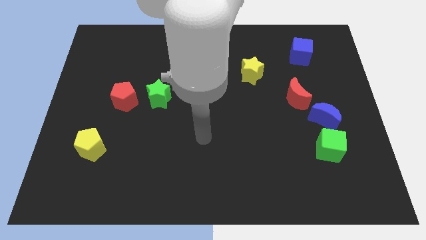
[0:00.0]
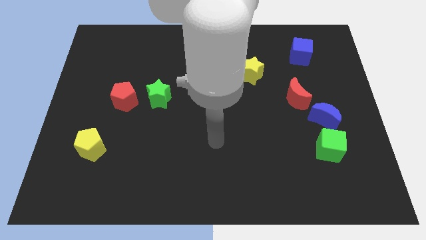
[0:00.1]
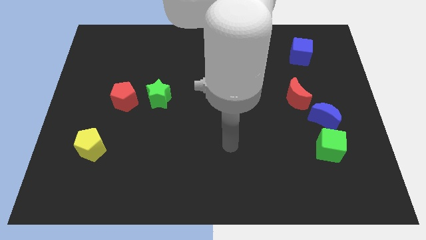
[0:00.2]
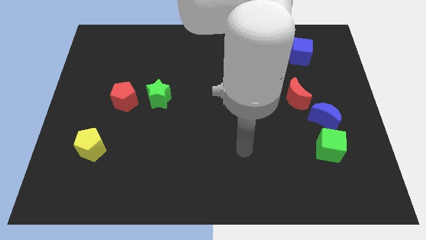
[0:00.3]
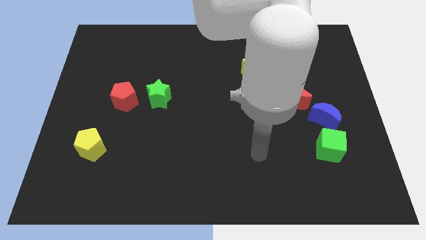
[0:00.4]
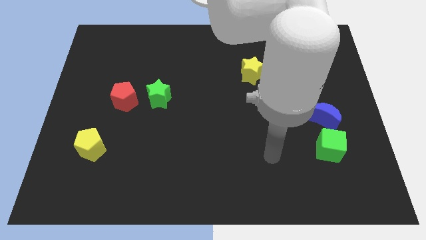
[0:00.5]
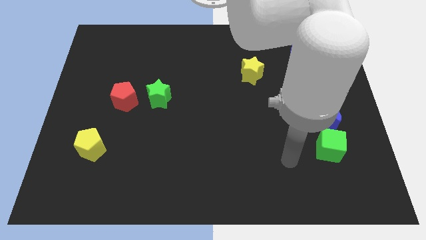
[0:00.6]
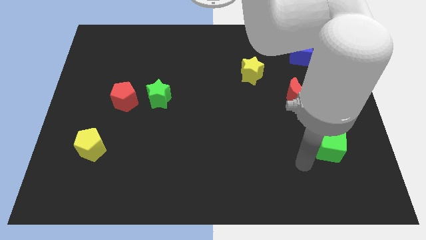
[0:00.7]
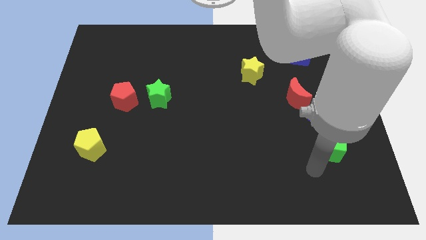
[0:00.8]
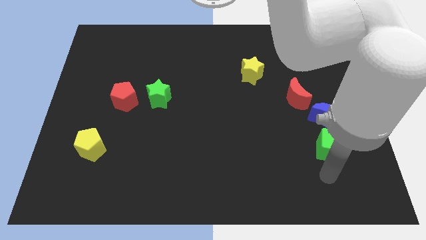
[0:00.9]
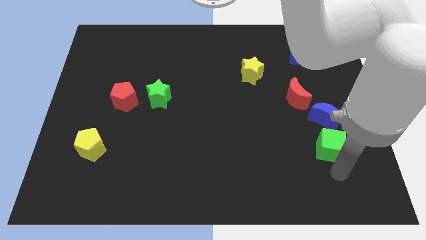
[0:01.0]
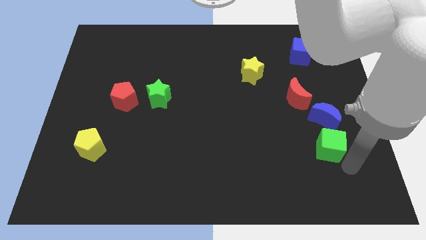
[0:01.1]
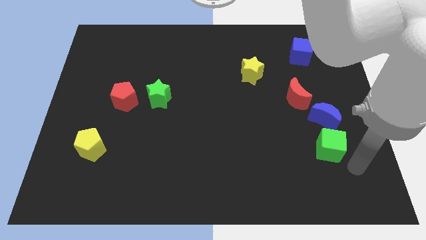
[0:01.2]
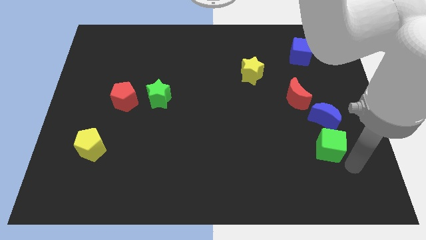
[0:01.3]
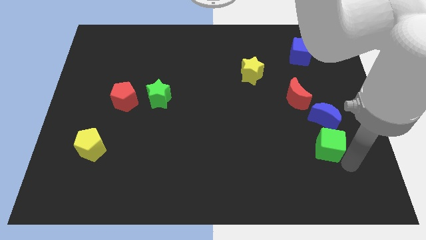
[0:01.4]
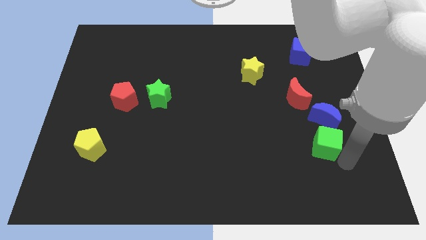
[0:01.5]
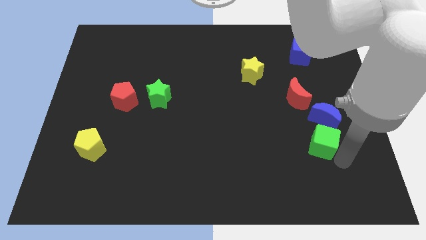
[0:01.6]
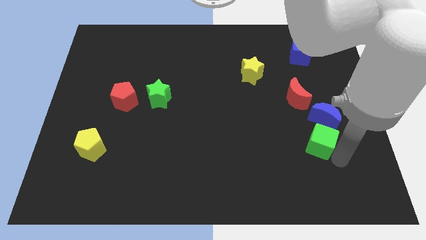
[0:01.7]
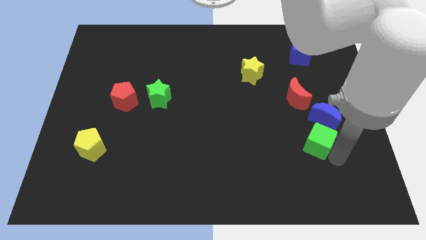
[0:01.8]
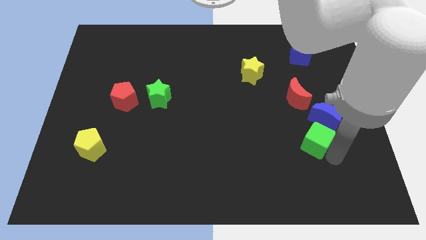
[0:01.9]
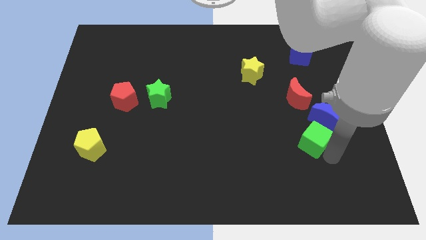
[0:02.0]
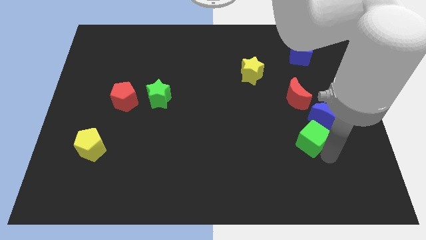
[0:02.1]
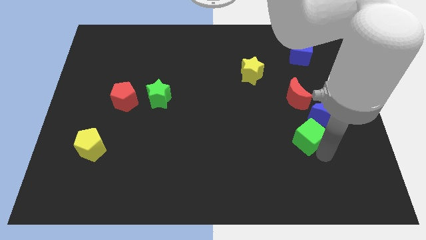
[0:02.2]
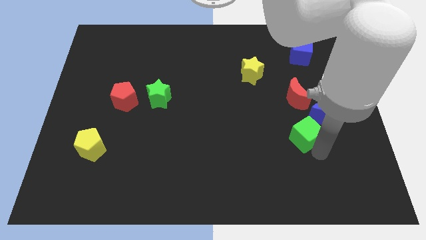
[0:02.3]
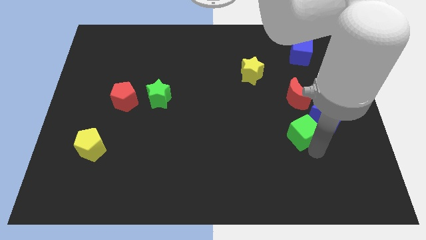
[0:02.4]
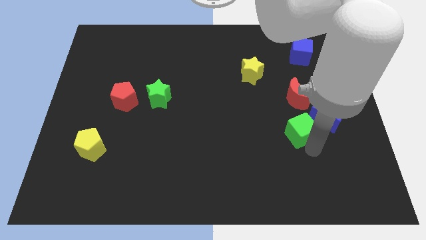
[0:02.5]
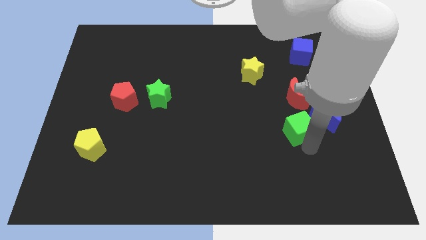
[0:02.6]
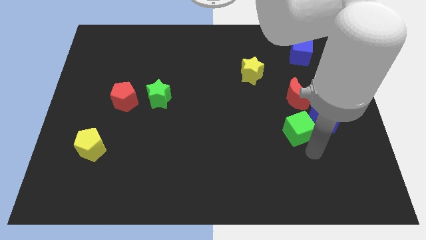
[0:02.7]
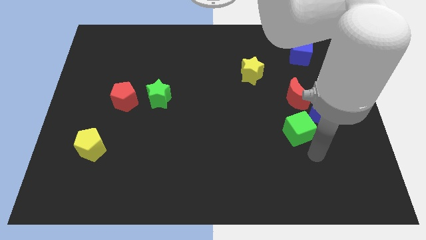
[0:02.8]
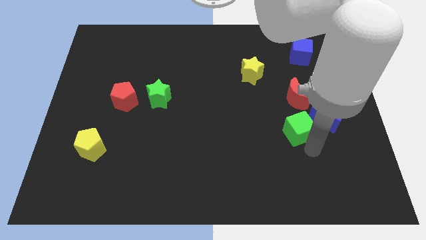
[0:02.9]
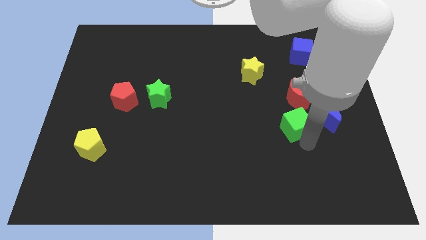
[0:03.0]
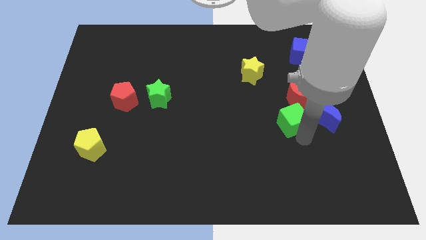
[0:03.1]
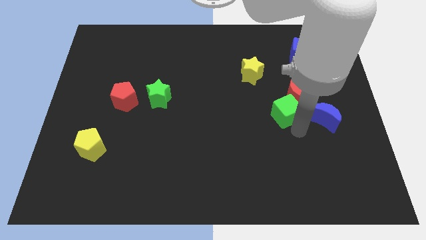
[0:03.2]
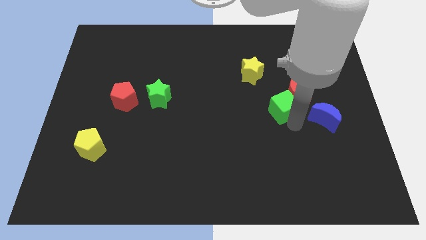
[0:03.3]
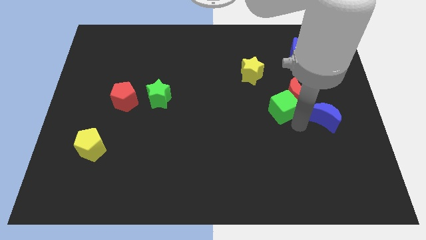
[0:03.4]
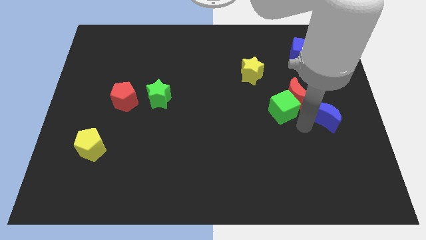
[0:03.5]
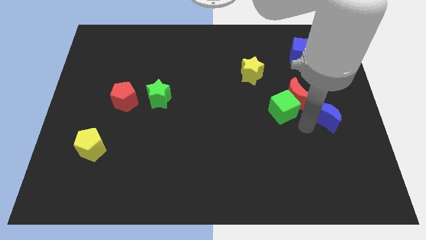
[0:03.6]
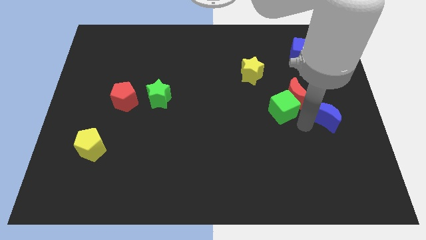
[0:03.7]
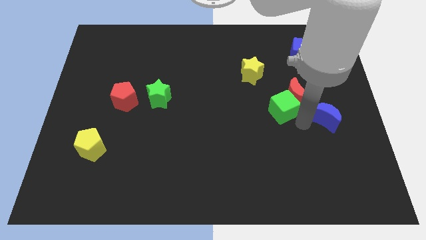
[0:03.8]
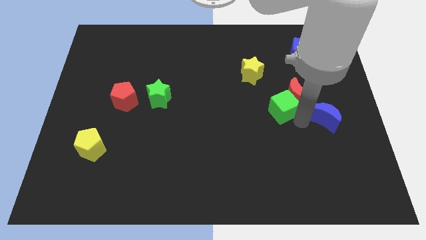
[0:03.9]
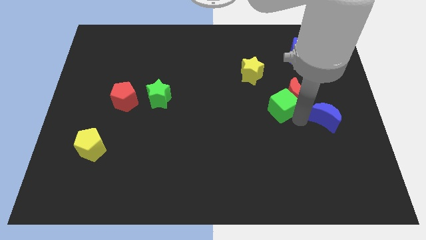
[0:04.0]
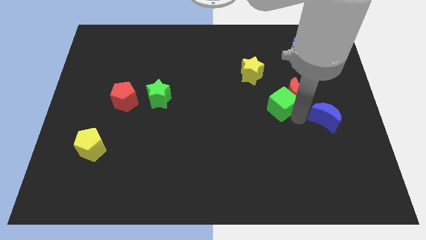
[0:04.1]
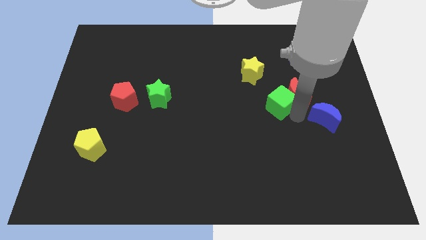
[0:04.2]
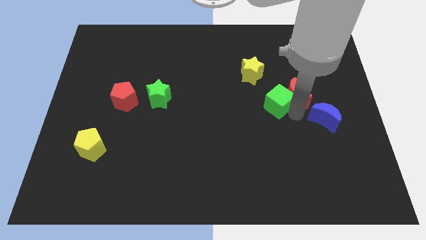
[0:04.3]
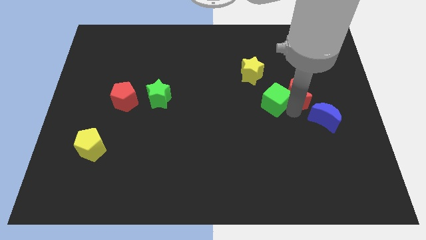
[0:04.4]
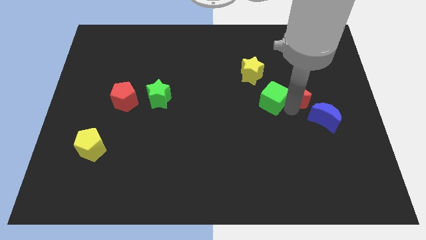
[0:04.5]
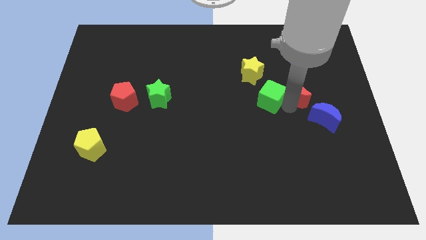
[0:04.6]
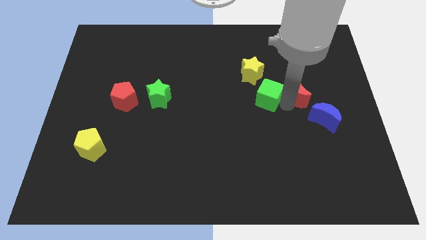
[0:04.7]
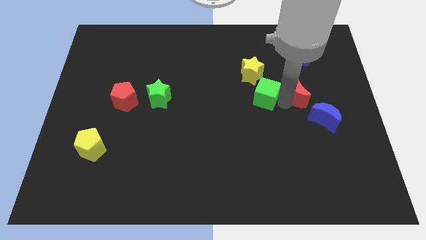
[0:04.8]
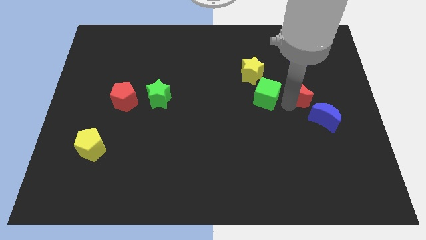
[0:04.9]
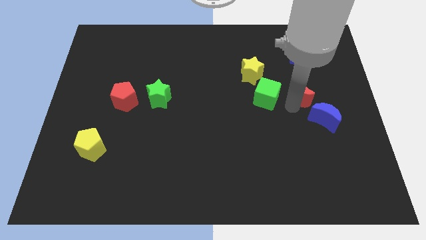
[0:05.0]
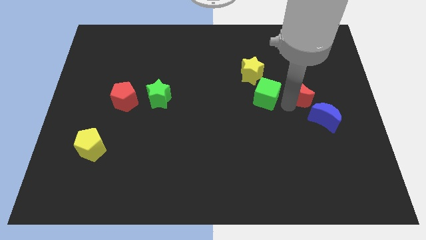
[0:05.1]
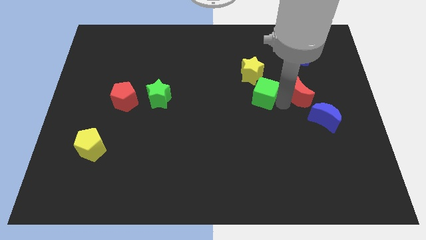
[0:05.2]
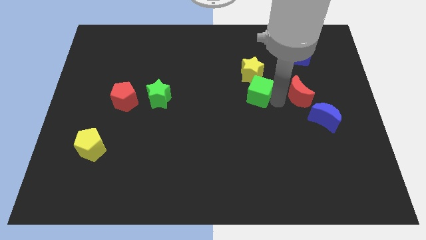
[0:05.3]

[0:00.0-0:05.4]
move the green cube diagonally upwards and to the left

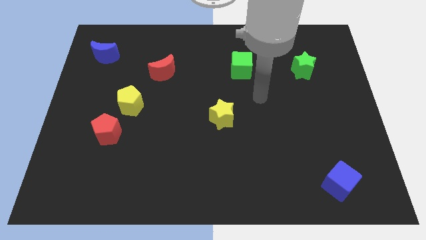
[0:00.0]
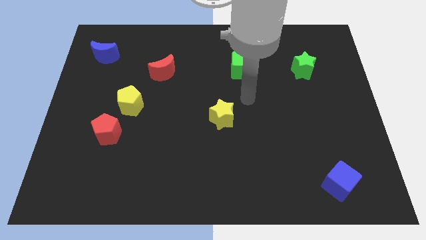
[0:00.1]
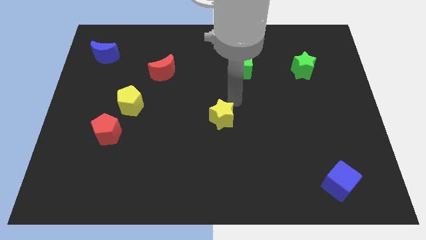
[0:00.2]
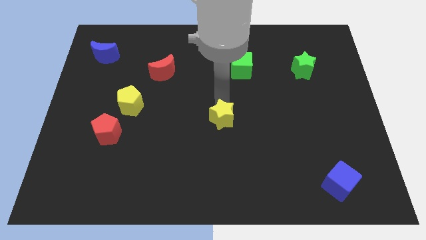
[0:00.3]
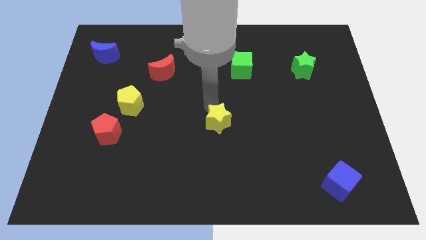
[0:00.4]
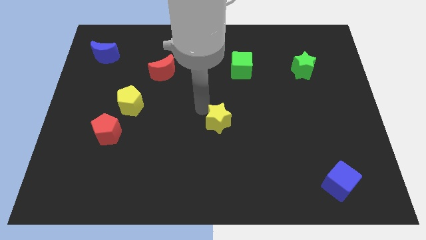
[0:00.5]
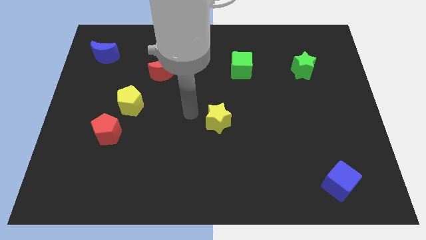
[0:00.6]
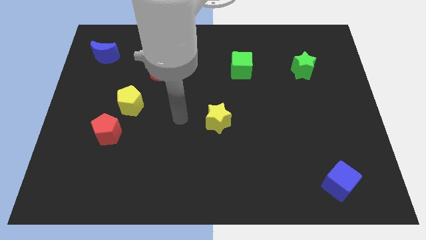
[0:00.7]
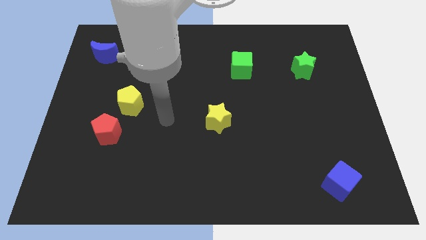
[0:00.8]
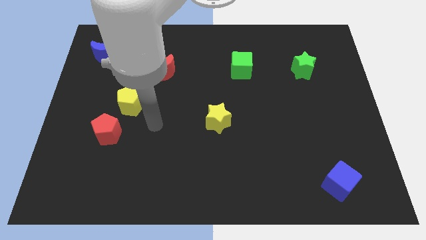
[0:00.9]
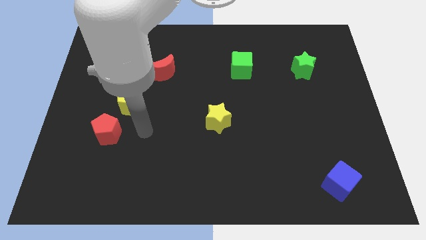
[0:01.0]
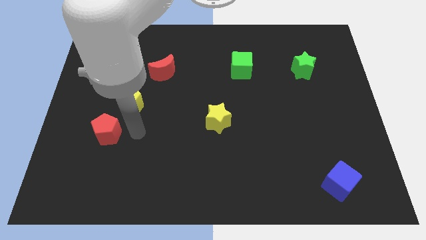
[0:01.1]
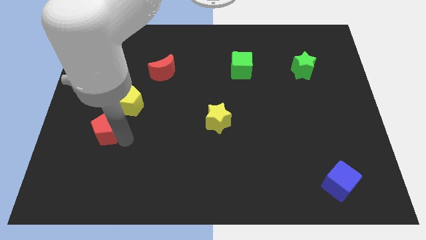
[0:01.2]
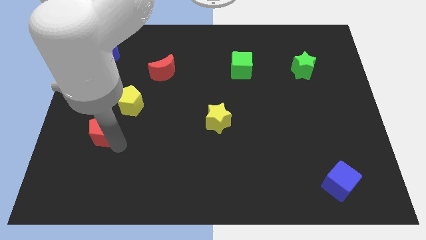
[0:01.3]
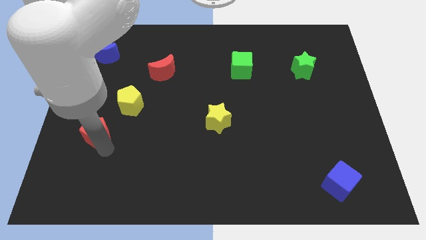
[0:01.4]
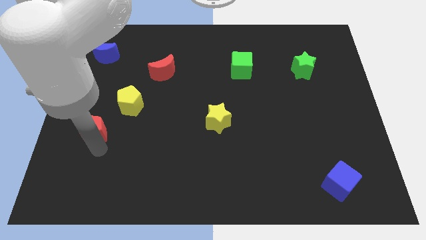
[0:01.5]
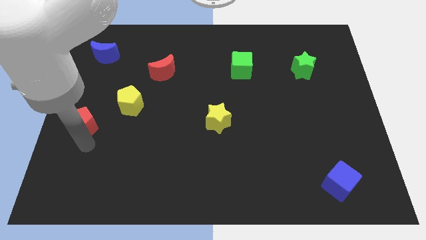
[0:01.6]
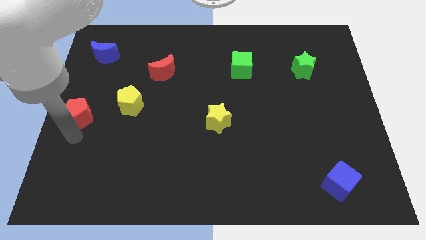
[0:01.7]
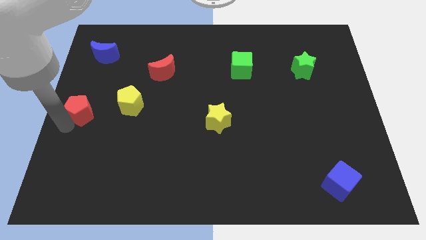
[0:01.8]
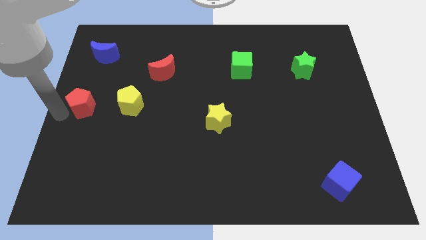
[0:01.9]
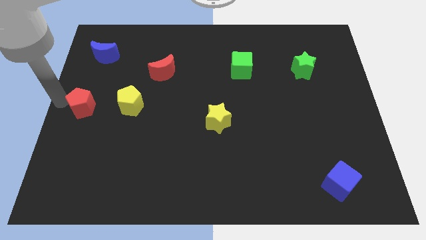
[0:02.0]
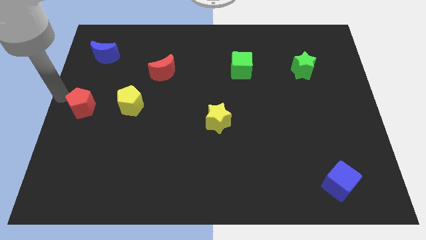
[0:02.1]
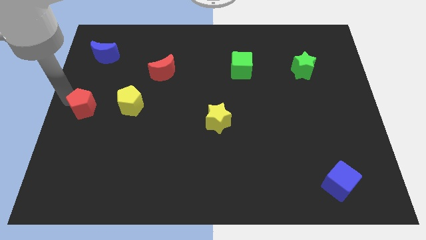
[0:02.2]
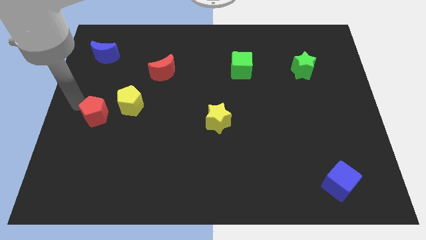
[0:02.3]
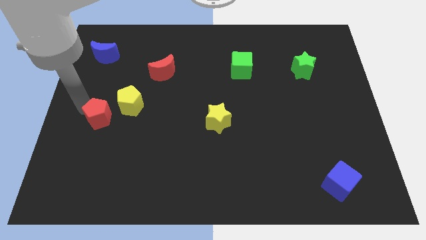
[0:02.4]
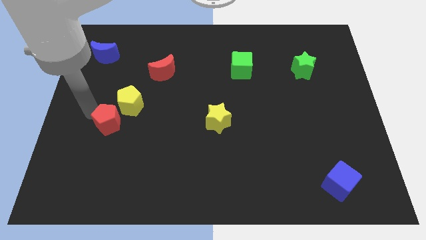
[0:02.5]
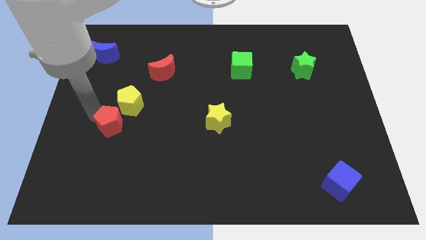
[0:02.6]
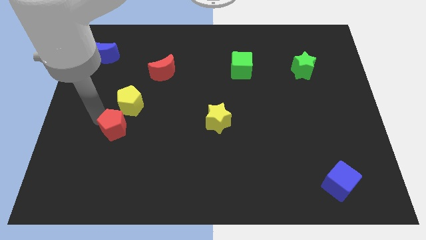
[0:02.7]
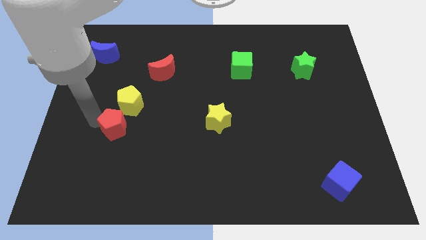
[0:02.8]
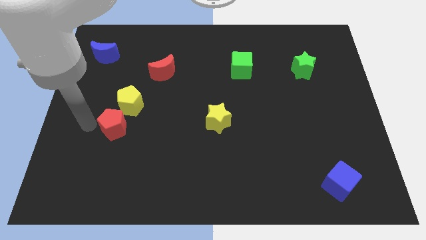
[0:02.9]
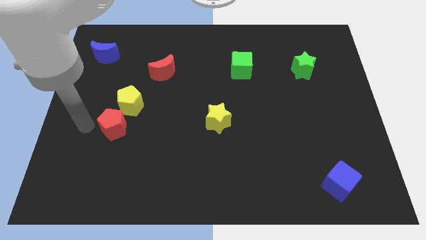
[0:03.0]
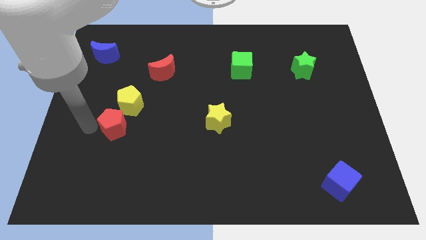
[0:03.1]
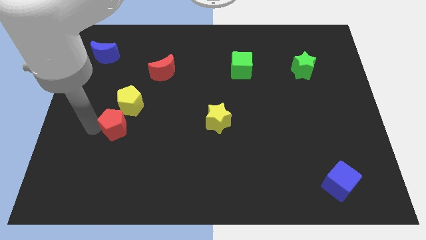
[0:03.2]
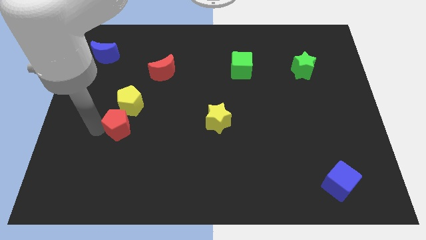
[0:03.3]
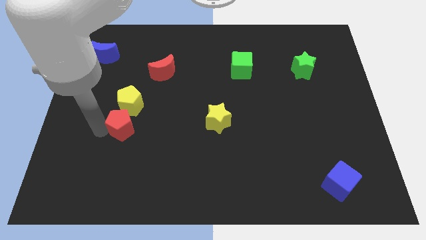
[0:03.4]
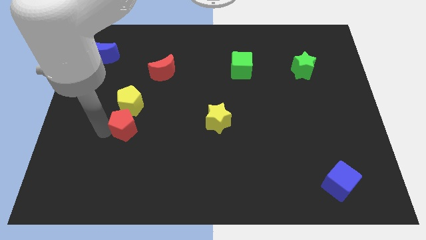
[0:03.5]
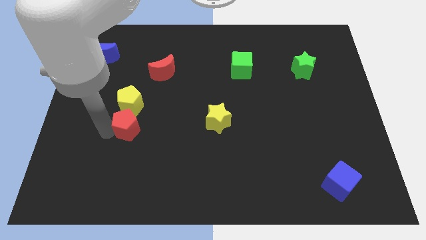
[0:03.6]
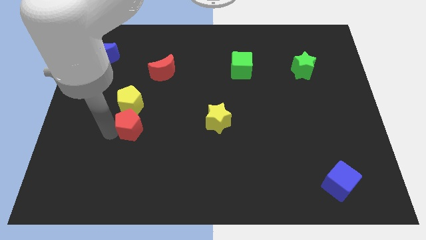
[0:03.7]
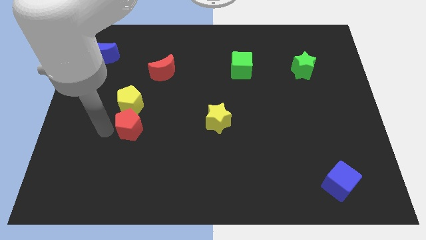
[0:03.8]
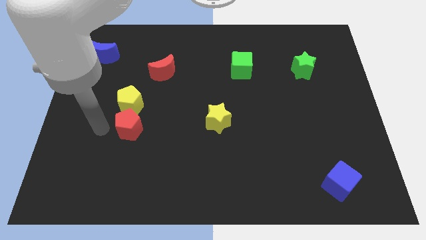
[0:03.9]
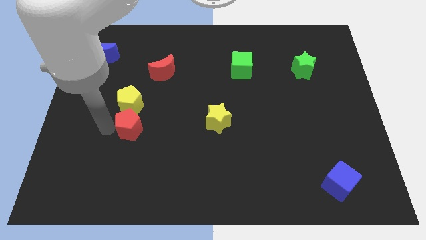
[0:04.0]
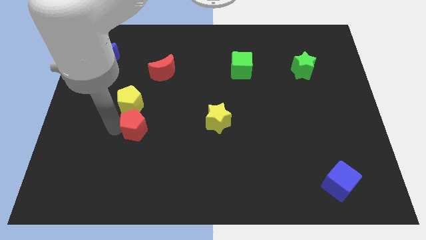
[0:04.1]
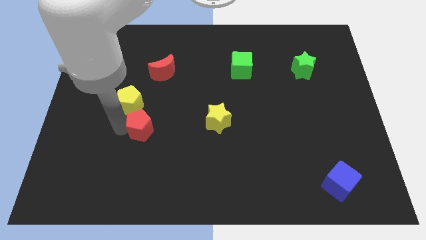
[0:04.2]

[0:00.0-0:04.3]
move the red pentagon a little right
